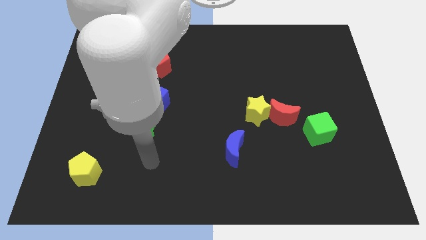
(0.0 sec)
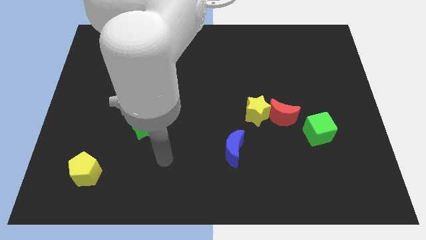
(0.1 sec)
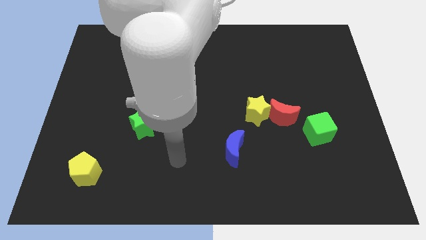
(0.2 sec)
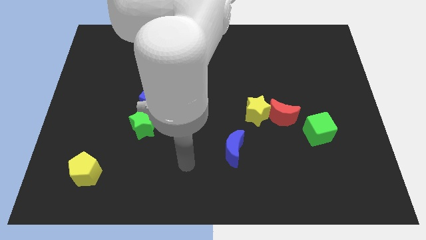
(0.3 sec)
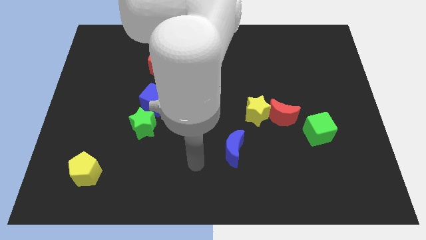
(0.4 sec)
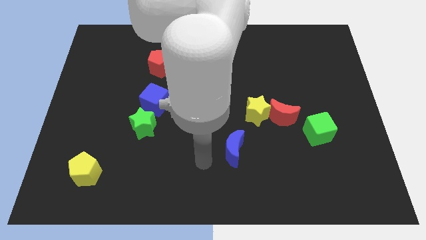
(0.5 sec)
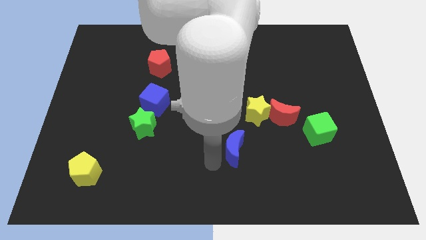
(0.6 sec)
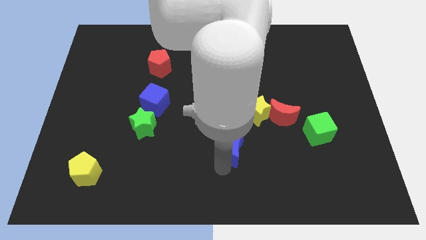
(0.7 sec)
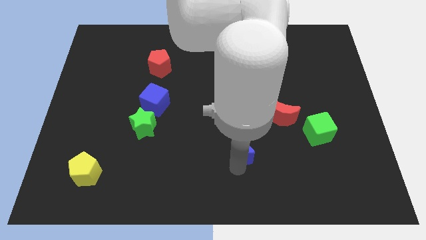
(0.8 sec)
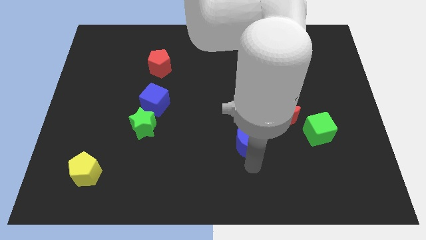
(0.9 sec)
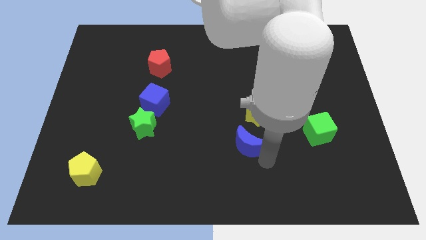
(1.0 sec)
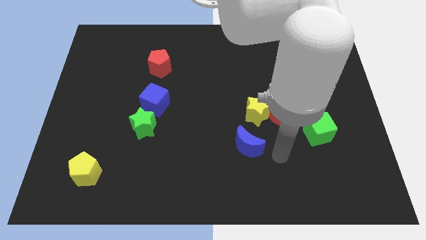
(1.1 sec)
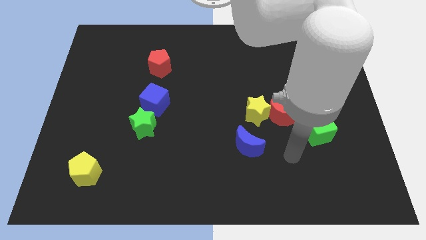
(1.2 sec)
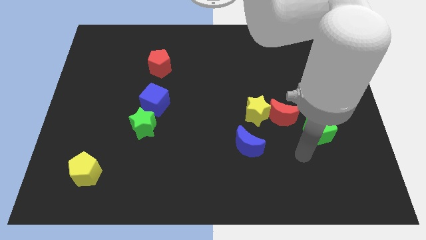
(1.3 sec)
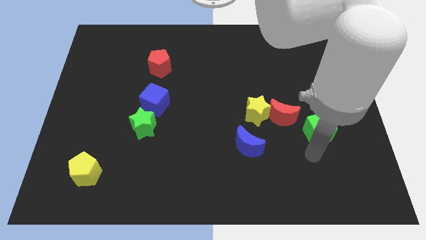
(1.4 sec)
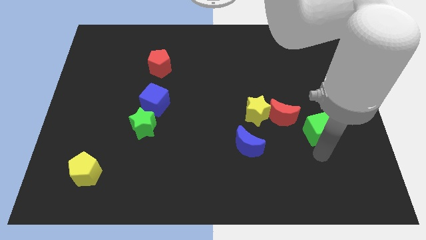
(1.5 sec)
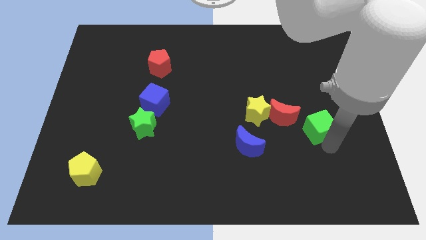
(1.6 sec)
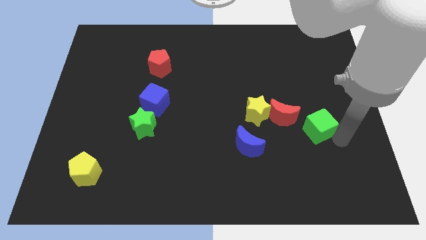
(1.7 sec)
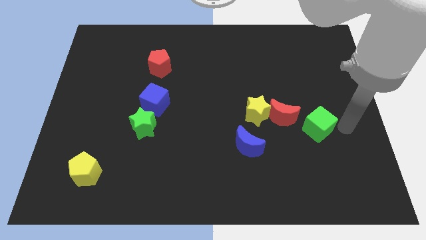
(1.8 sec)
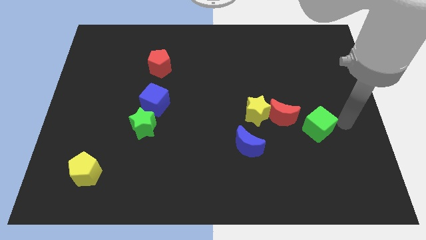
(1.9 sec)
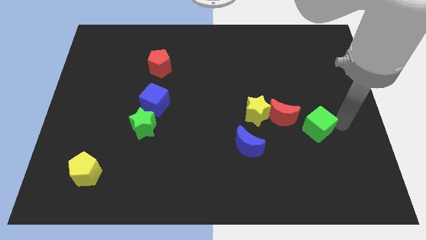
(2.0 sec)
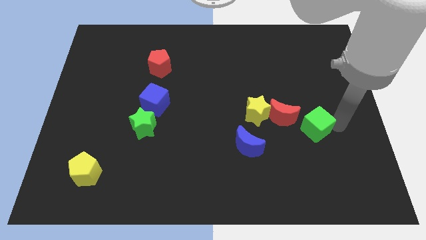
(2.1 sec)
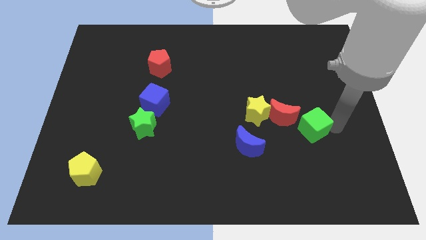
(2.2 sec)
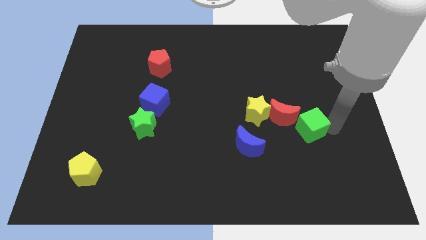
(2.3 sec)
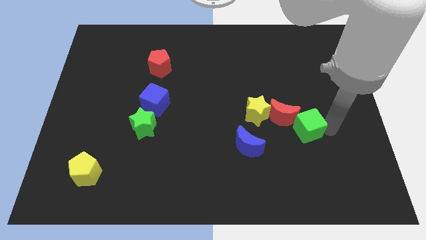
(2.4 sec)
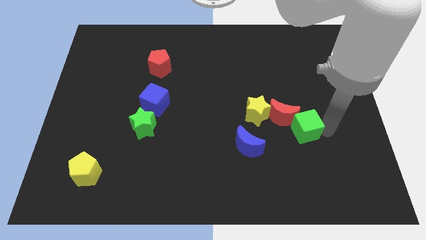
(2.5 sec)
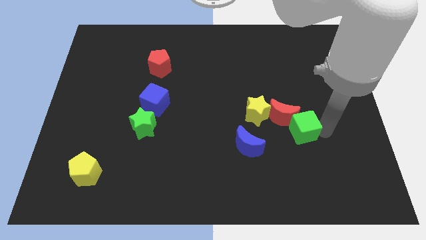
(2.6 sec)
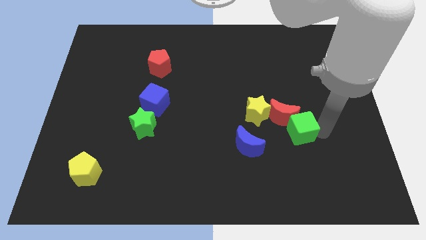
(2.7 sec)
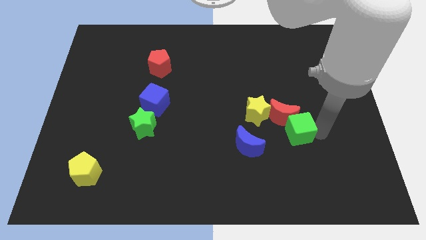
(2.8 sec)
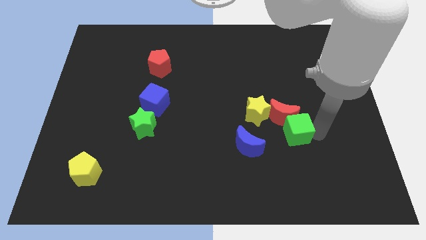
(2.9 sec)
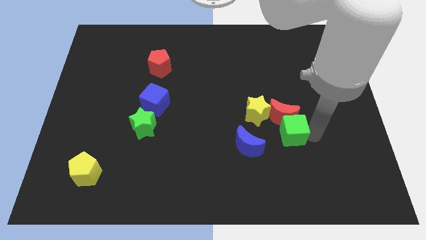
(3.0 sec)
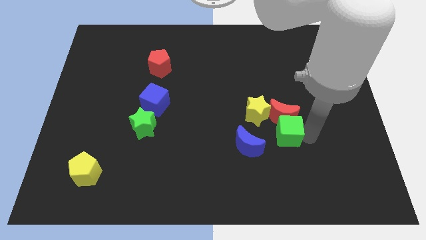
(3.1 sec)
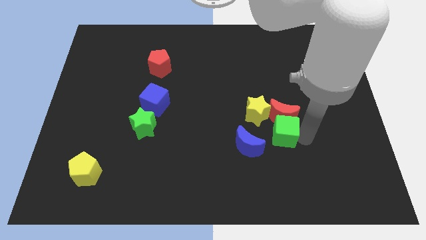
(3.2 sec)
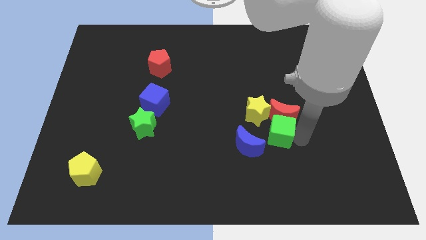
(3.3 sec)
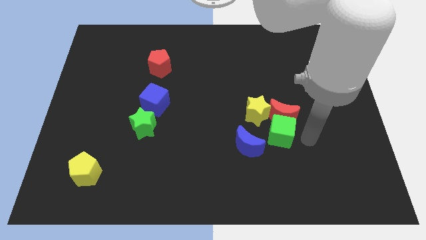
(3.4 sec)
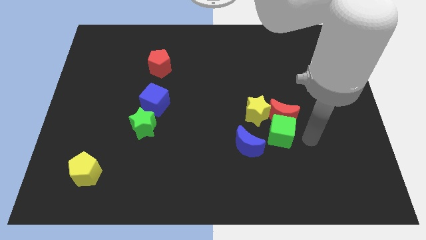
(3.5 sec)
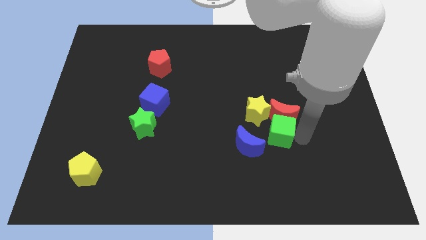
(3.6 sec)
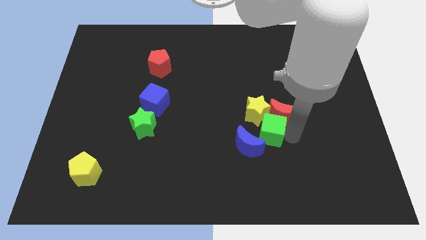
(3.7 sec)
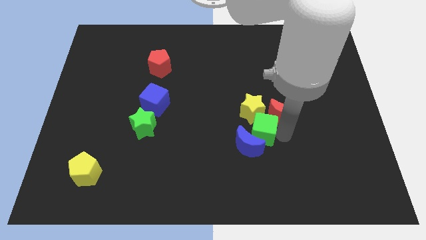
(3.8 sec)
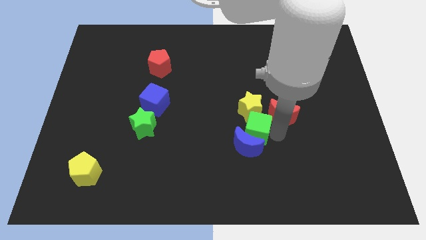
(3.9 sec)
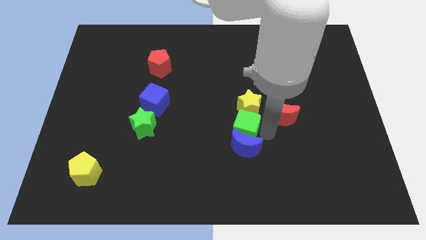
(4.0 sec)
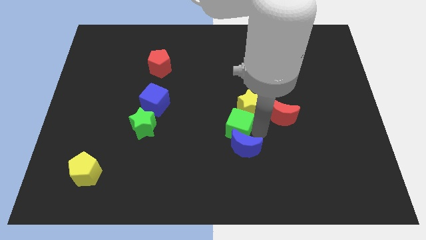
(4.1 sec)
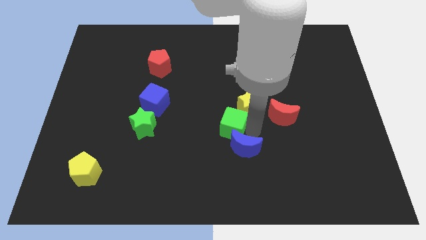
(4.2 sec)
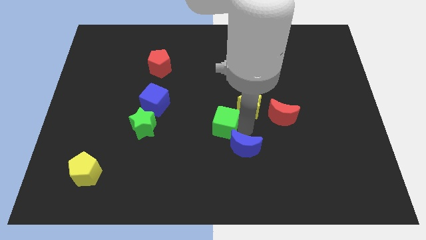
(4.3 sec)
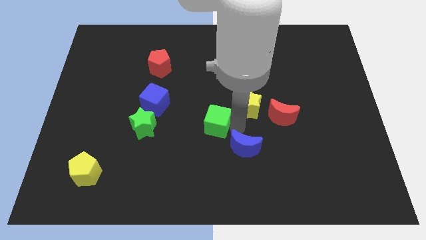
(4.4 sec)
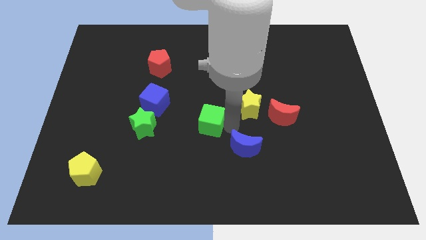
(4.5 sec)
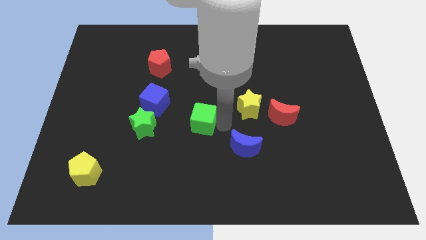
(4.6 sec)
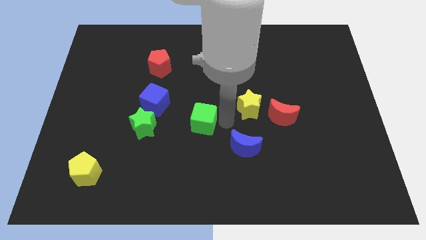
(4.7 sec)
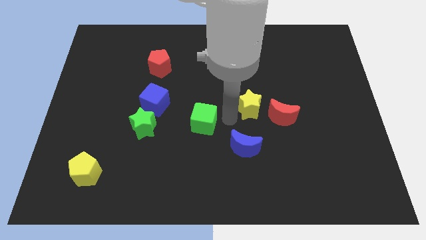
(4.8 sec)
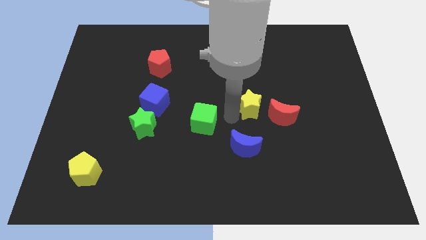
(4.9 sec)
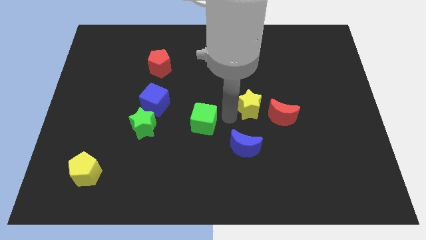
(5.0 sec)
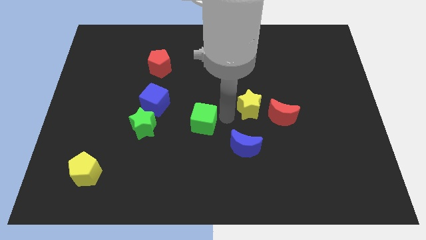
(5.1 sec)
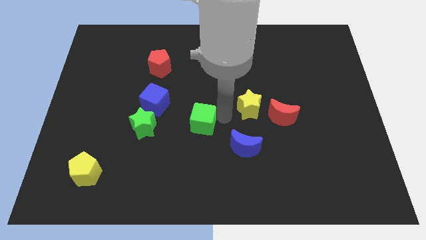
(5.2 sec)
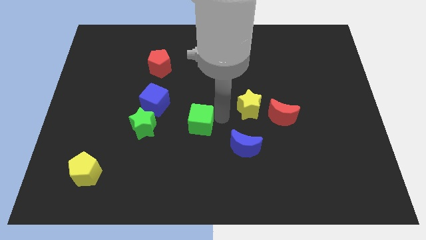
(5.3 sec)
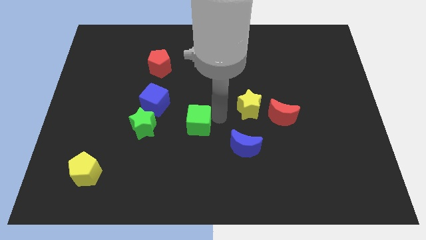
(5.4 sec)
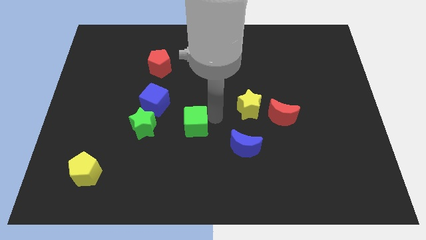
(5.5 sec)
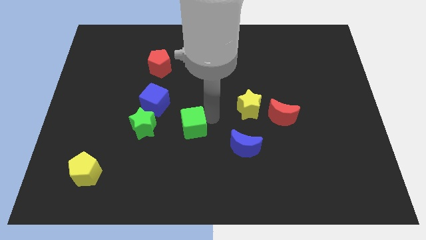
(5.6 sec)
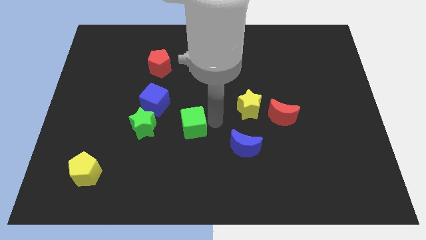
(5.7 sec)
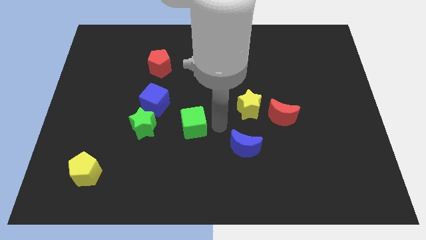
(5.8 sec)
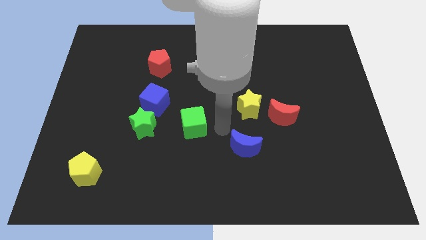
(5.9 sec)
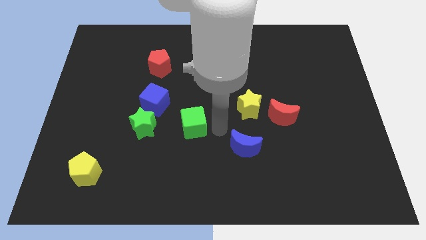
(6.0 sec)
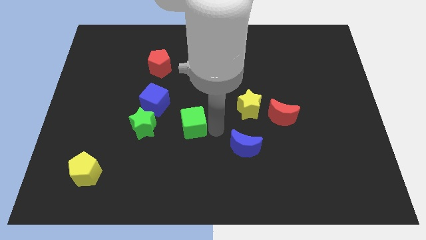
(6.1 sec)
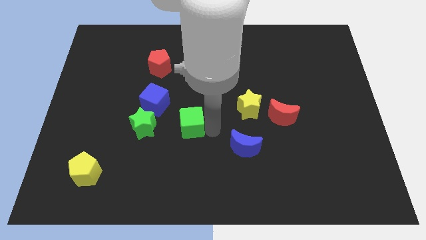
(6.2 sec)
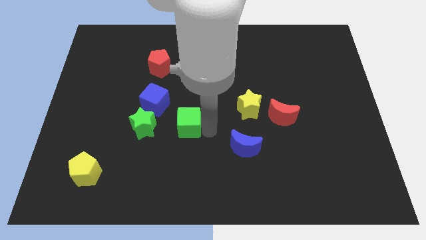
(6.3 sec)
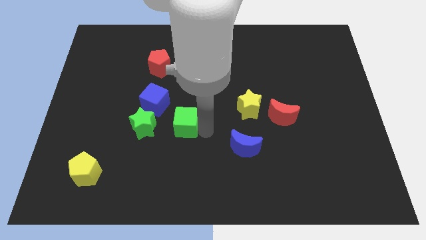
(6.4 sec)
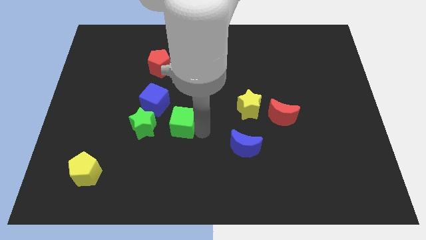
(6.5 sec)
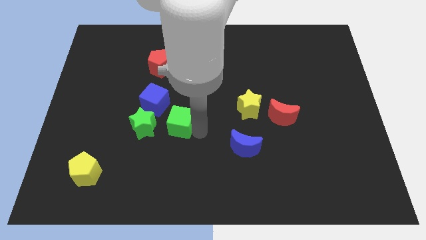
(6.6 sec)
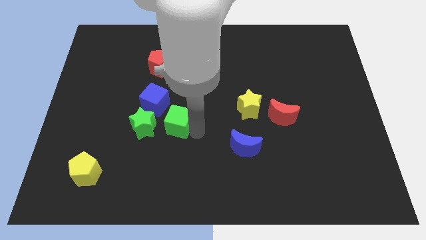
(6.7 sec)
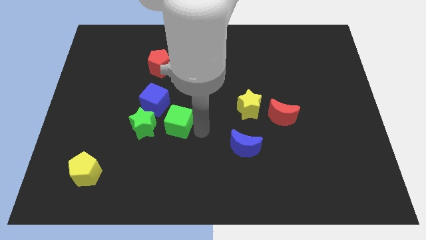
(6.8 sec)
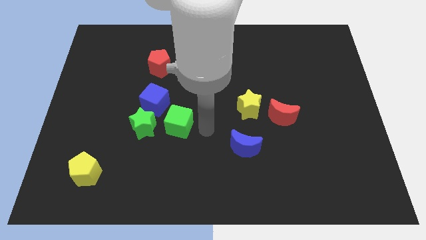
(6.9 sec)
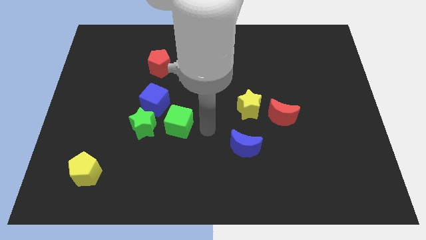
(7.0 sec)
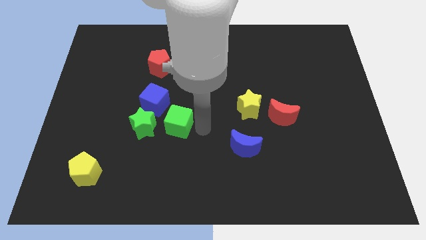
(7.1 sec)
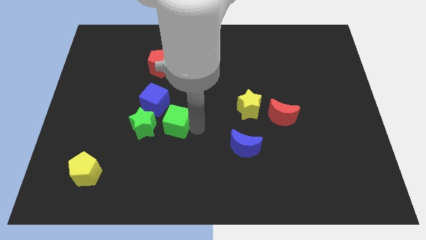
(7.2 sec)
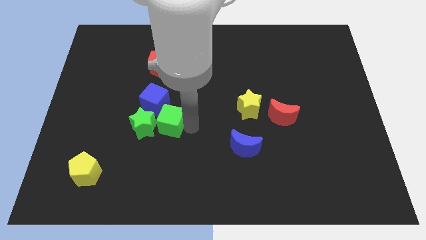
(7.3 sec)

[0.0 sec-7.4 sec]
put the green cube to the bottom side of the blue cube

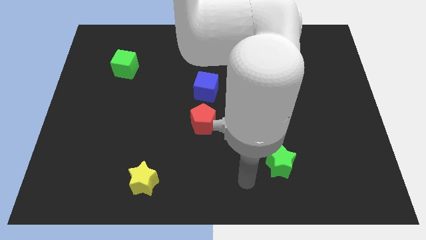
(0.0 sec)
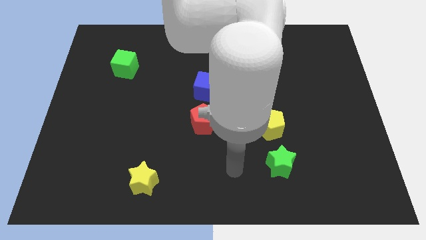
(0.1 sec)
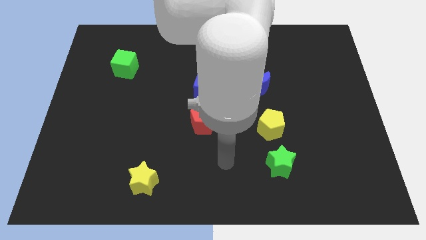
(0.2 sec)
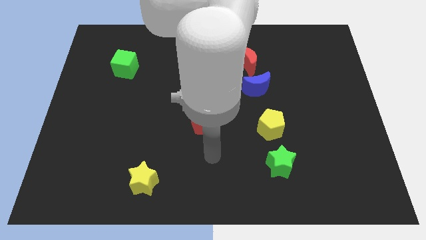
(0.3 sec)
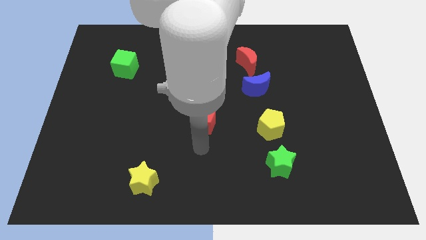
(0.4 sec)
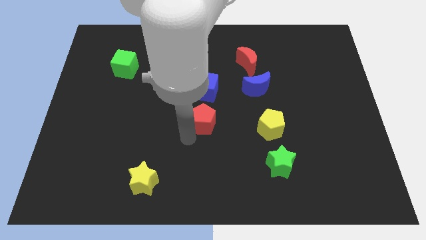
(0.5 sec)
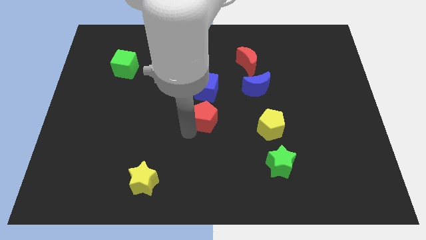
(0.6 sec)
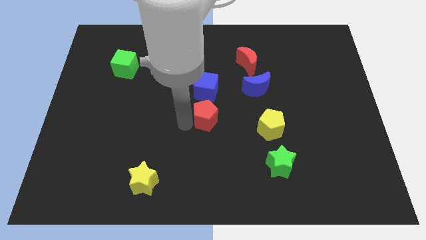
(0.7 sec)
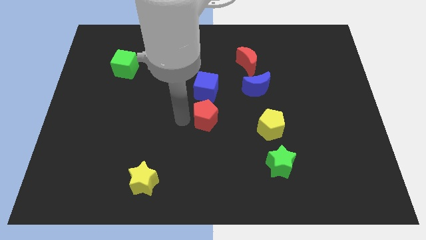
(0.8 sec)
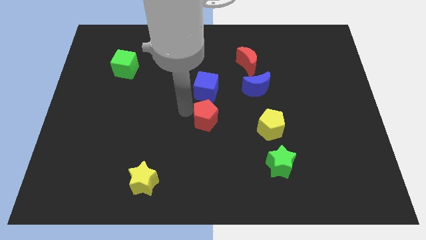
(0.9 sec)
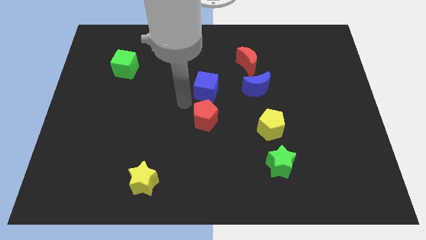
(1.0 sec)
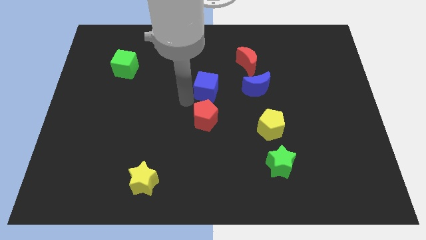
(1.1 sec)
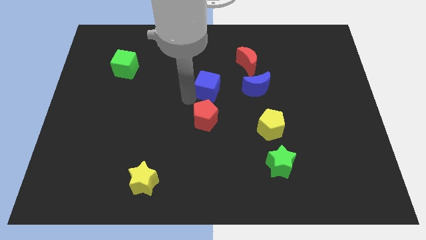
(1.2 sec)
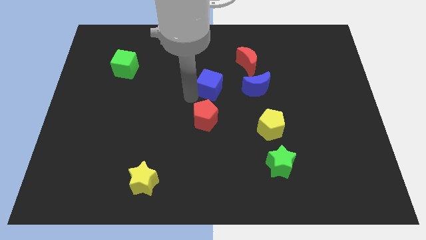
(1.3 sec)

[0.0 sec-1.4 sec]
push the blue cube to the bottom left side of the red moon
